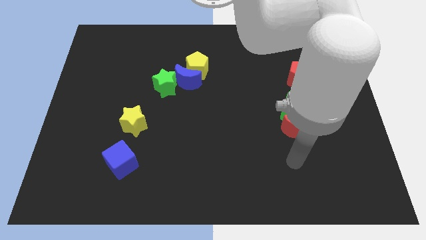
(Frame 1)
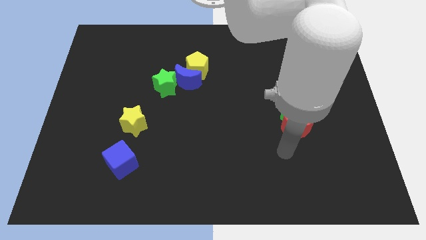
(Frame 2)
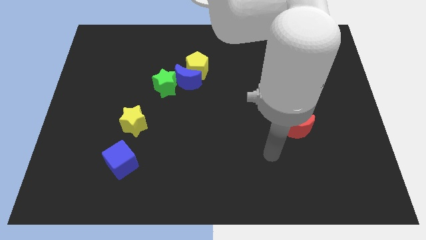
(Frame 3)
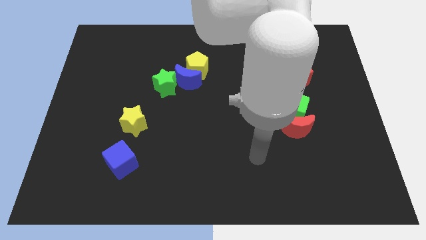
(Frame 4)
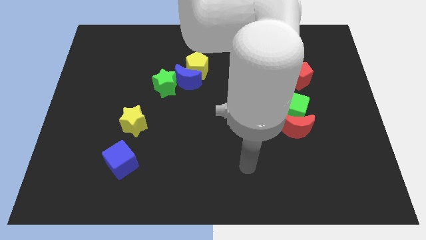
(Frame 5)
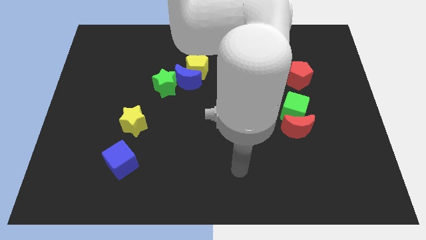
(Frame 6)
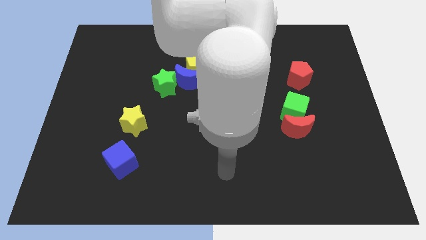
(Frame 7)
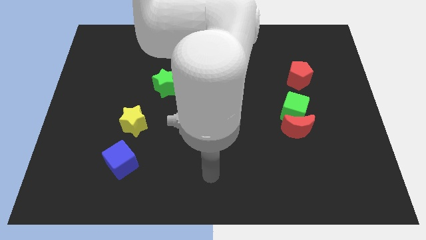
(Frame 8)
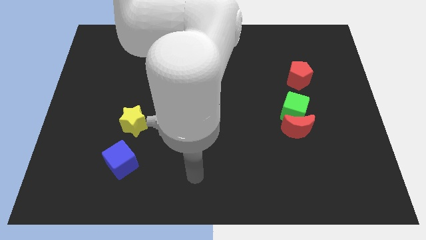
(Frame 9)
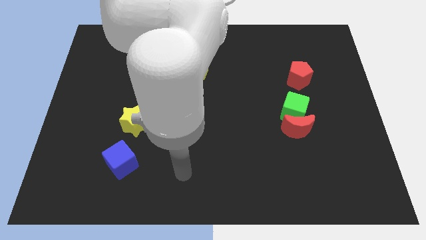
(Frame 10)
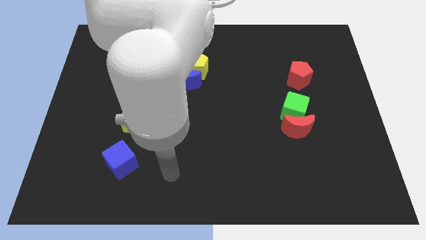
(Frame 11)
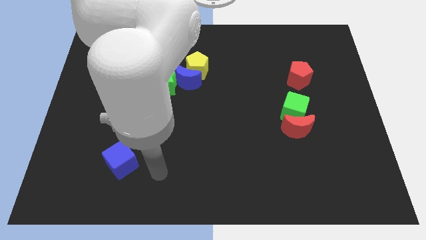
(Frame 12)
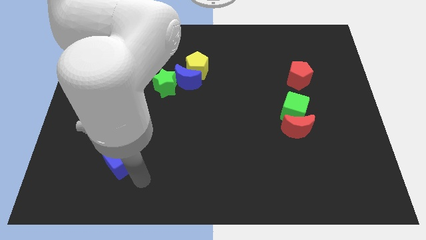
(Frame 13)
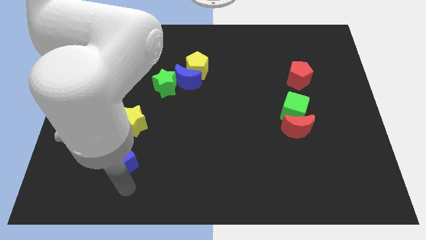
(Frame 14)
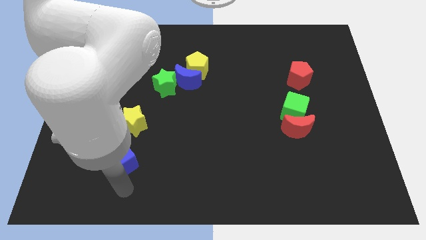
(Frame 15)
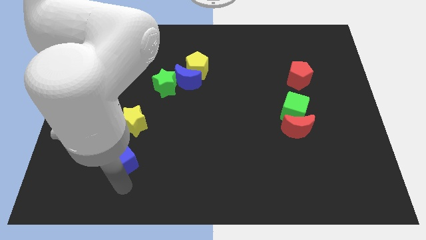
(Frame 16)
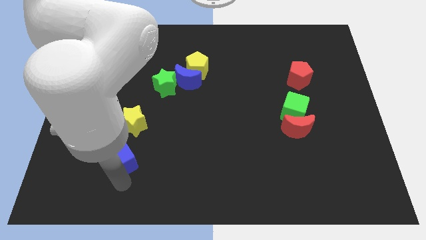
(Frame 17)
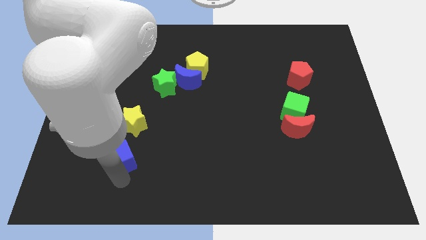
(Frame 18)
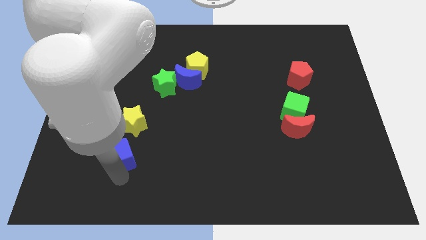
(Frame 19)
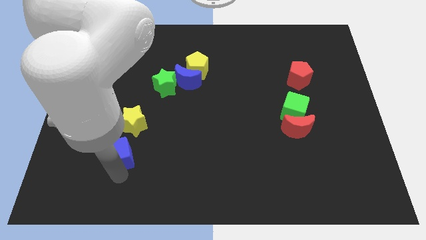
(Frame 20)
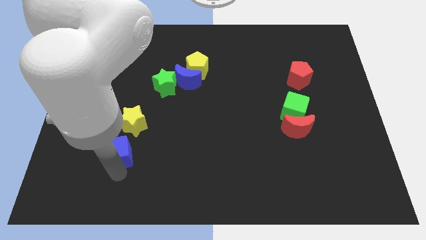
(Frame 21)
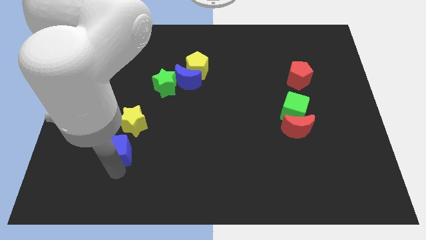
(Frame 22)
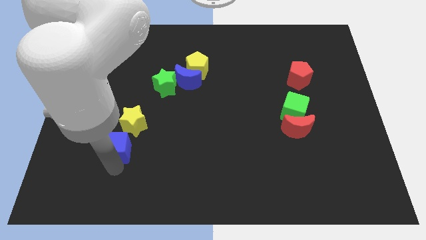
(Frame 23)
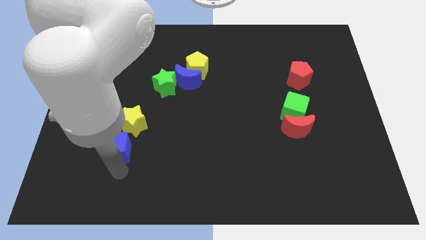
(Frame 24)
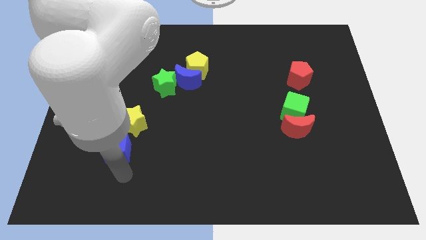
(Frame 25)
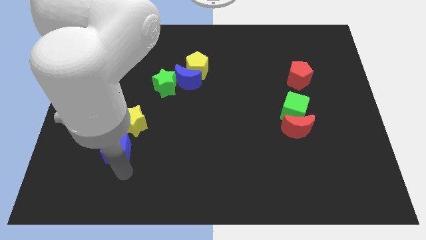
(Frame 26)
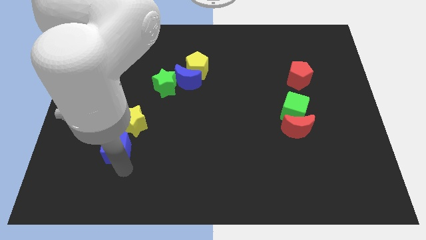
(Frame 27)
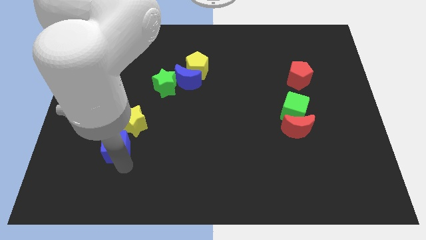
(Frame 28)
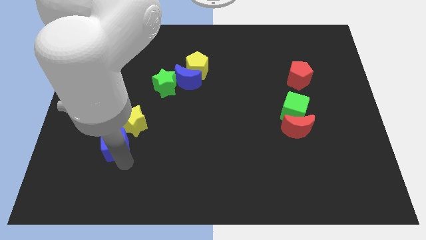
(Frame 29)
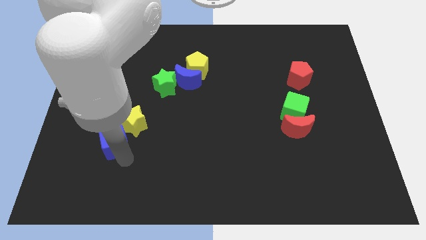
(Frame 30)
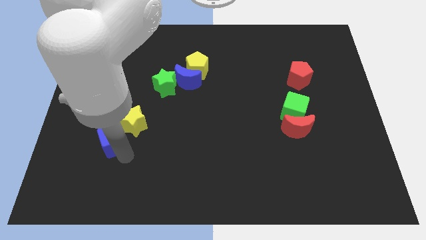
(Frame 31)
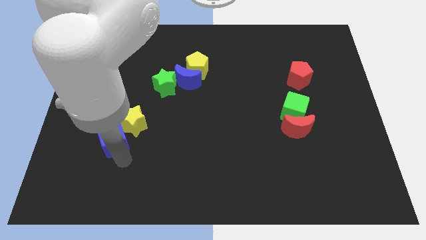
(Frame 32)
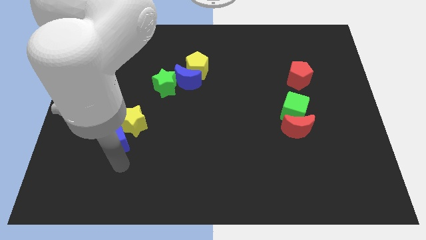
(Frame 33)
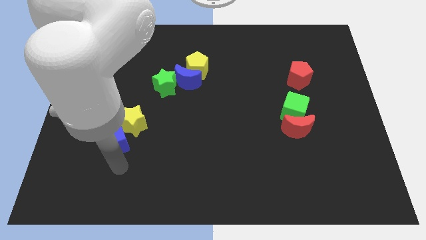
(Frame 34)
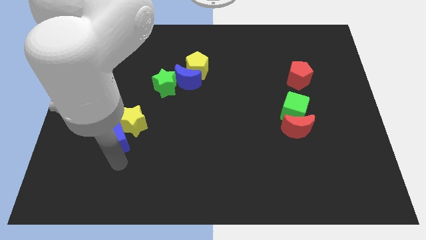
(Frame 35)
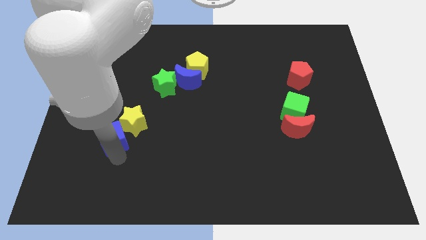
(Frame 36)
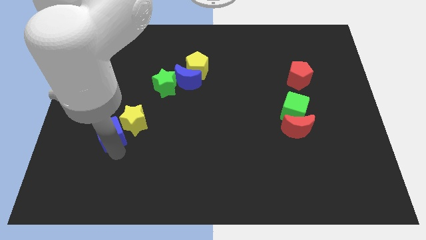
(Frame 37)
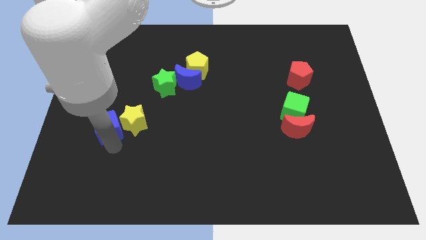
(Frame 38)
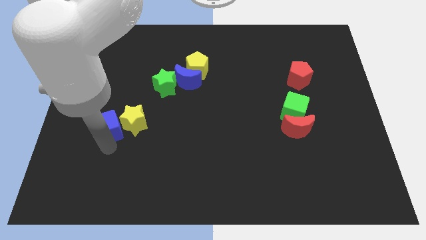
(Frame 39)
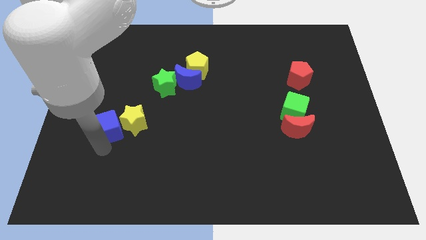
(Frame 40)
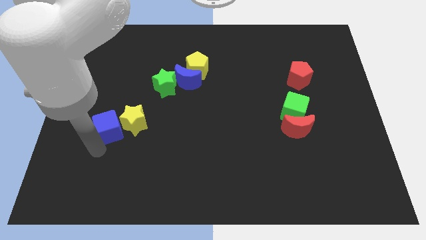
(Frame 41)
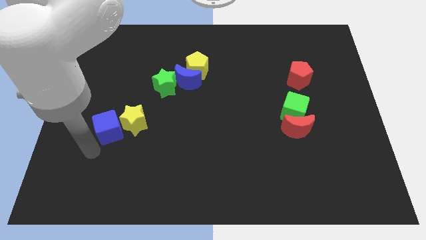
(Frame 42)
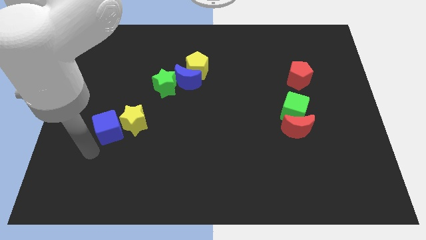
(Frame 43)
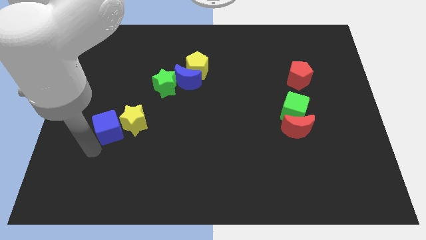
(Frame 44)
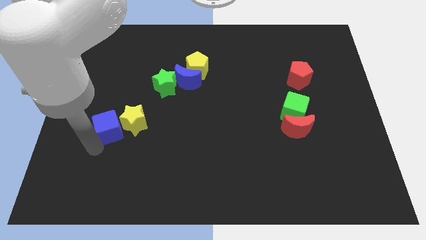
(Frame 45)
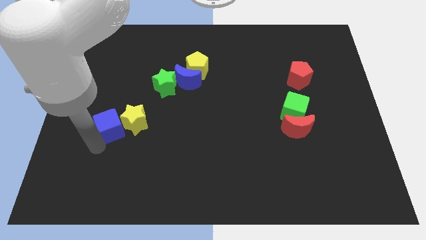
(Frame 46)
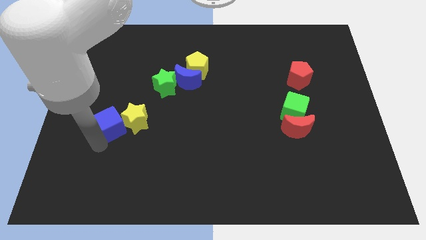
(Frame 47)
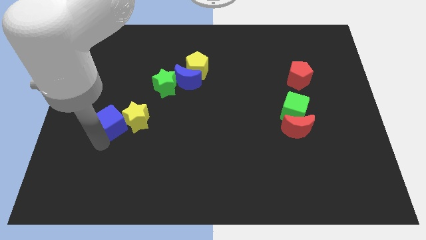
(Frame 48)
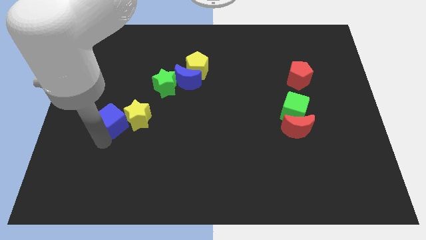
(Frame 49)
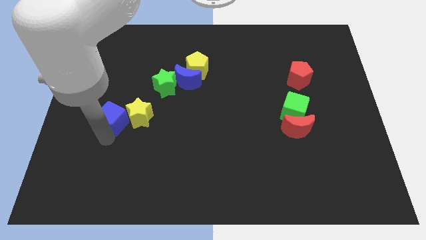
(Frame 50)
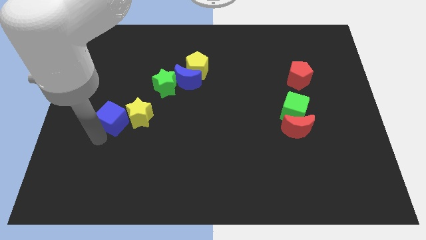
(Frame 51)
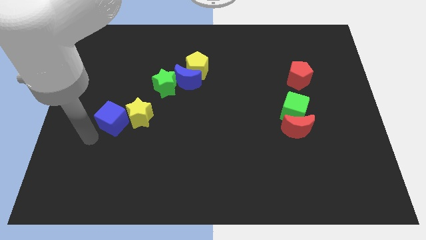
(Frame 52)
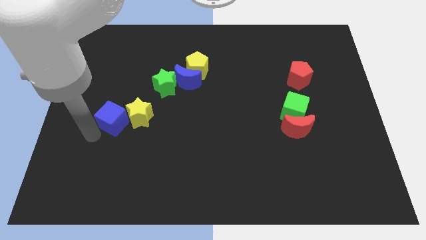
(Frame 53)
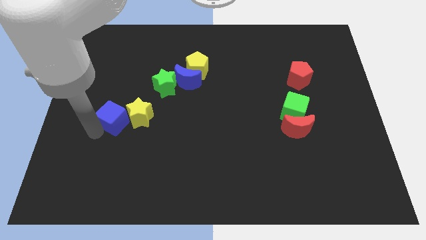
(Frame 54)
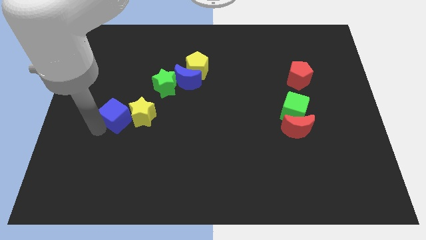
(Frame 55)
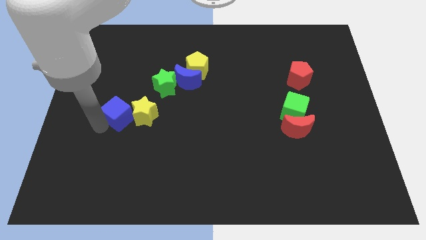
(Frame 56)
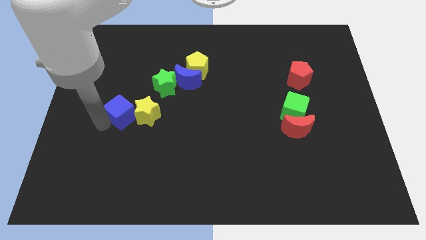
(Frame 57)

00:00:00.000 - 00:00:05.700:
push the blue cube to the bottom left side of the green star

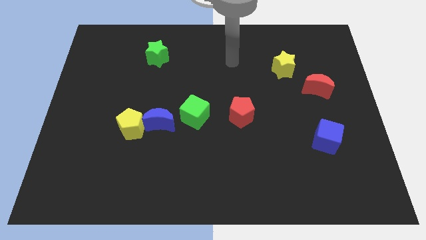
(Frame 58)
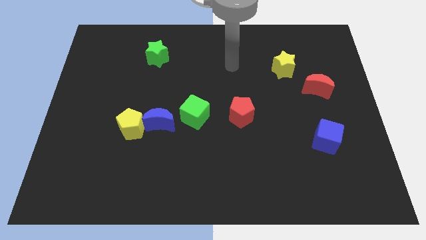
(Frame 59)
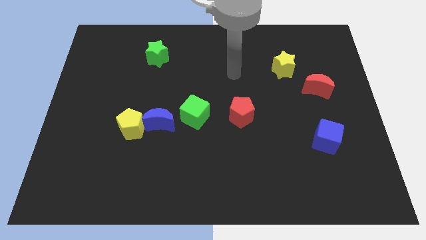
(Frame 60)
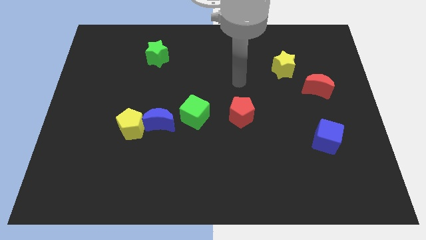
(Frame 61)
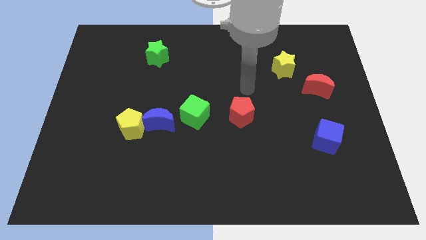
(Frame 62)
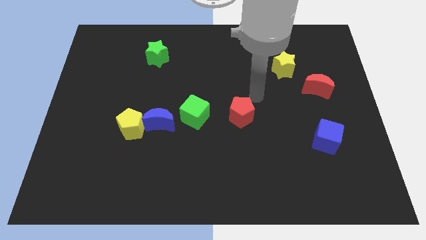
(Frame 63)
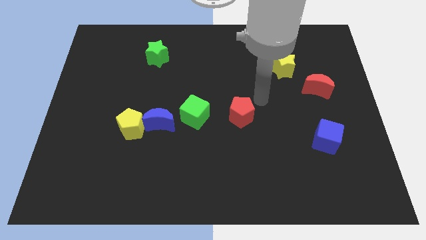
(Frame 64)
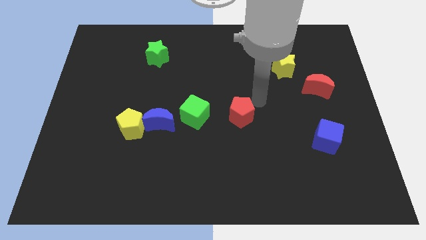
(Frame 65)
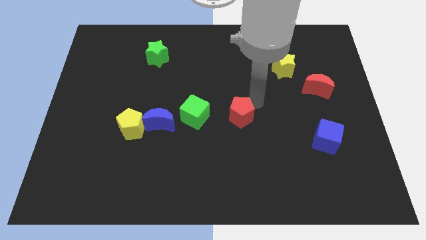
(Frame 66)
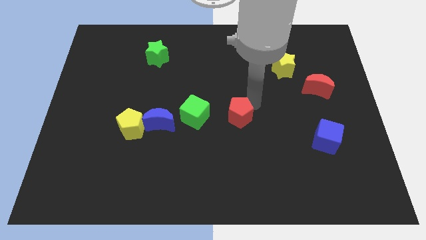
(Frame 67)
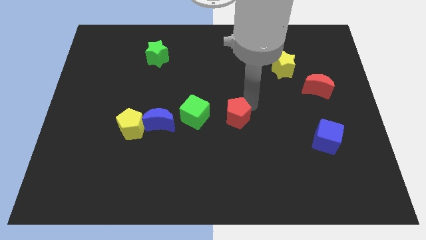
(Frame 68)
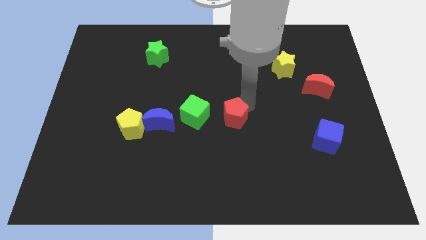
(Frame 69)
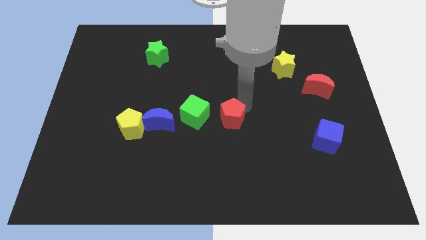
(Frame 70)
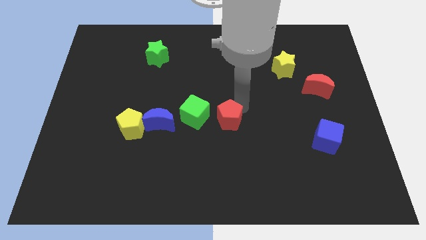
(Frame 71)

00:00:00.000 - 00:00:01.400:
slide the red pentagon to the bottom right of the green cube
